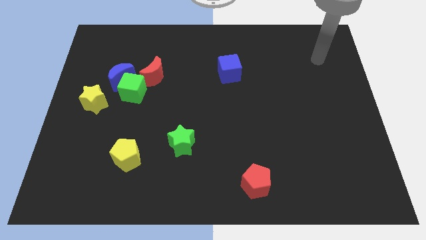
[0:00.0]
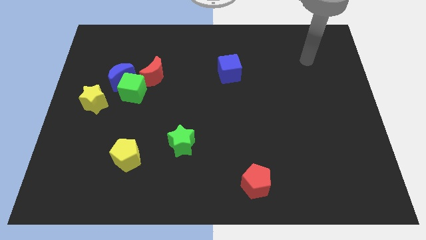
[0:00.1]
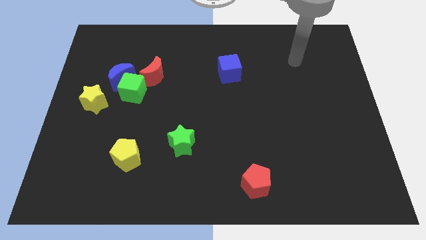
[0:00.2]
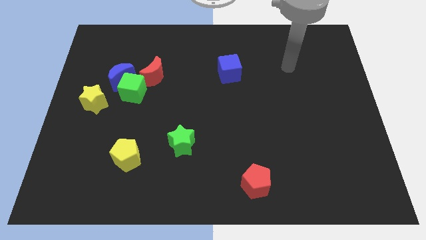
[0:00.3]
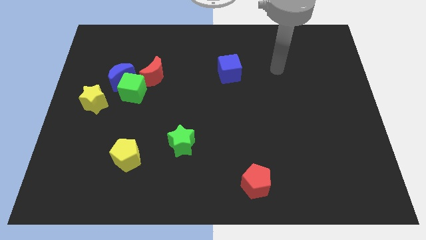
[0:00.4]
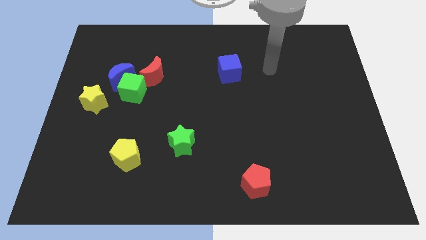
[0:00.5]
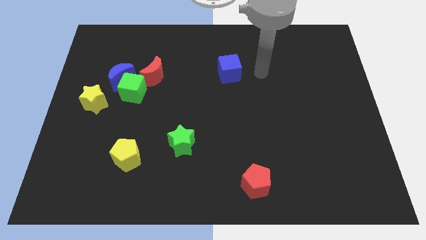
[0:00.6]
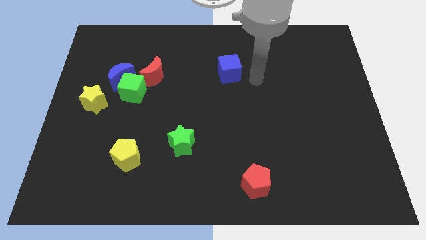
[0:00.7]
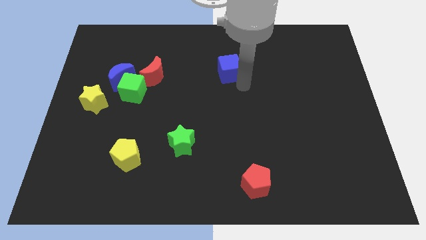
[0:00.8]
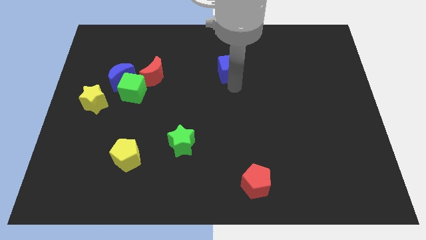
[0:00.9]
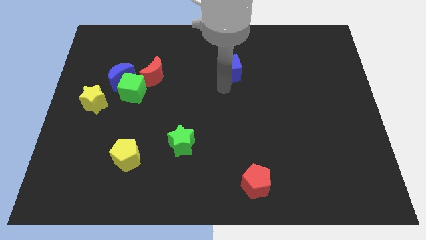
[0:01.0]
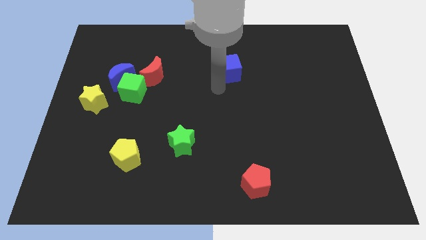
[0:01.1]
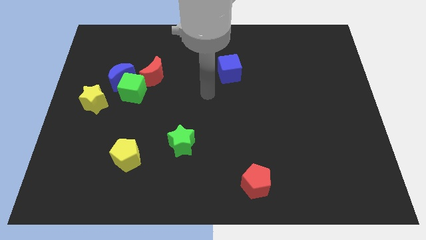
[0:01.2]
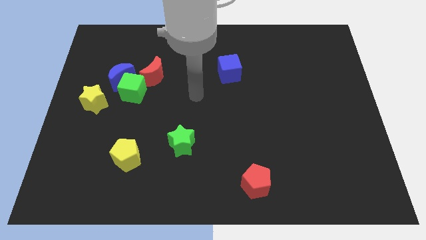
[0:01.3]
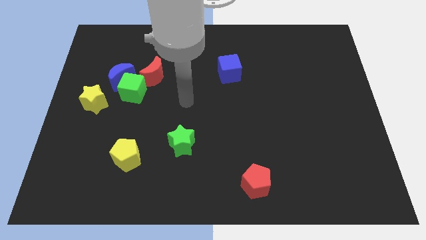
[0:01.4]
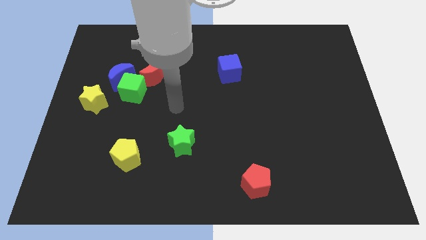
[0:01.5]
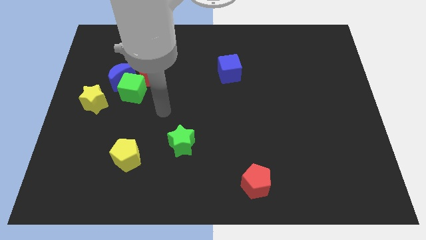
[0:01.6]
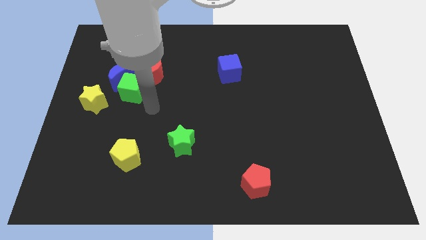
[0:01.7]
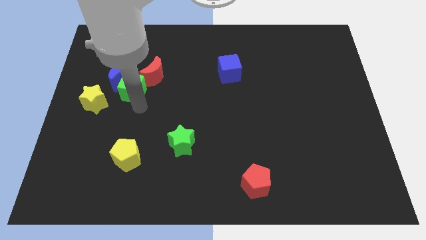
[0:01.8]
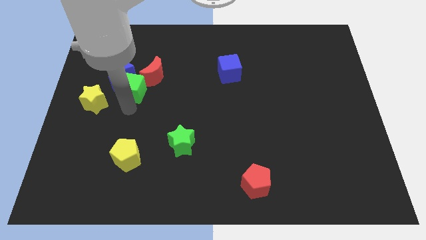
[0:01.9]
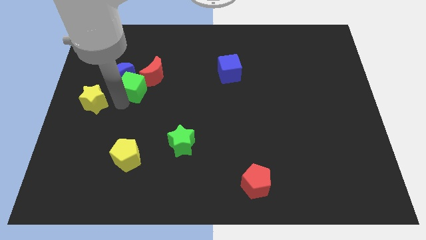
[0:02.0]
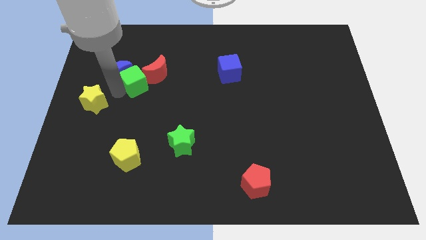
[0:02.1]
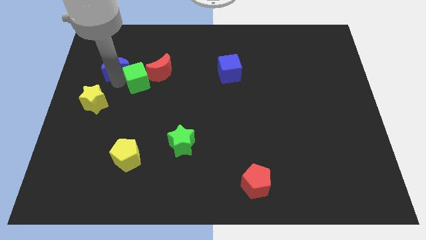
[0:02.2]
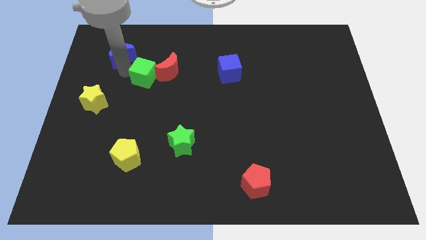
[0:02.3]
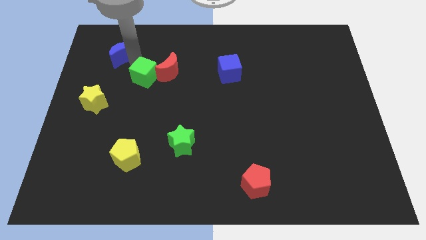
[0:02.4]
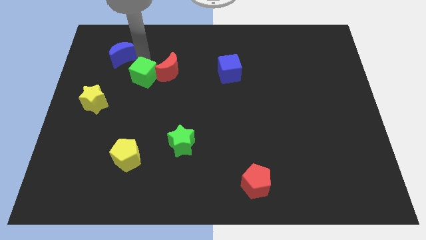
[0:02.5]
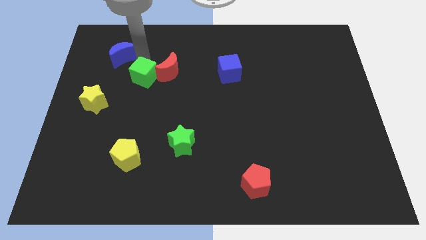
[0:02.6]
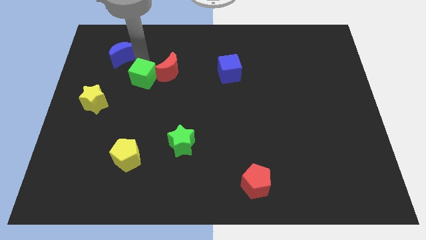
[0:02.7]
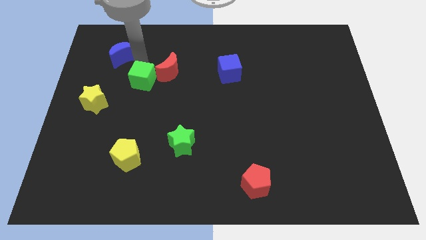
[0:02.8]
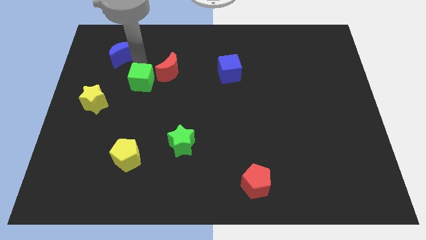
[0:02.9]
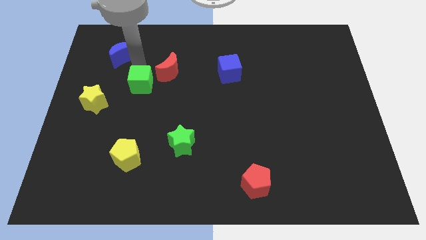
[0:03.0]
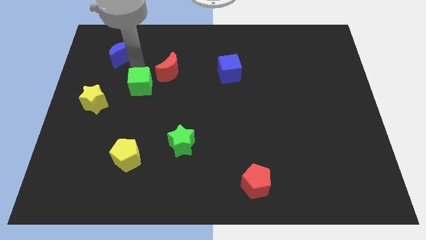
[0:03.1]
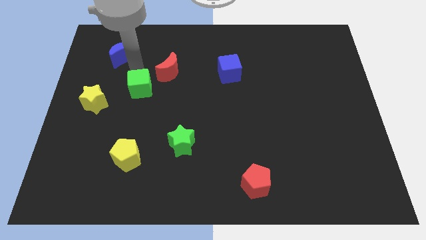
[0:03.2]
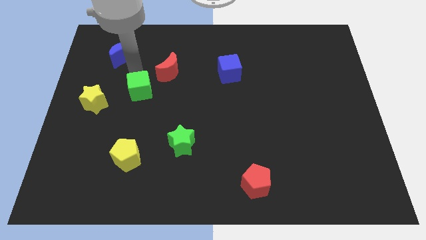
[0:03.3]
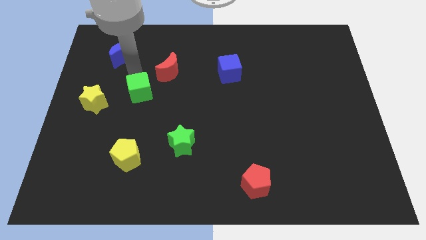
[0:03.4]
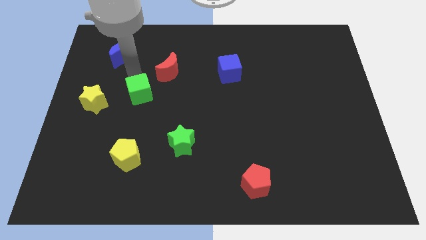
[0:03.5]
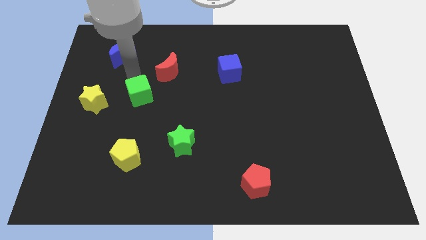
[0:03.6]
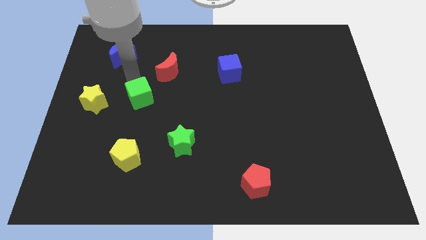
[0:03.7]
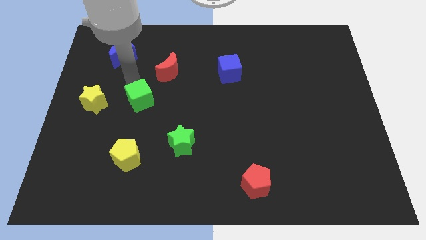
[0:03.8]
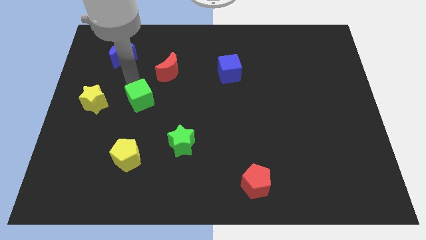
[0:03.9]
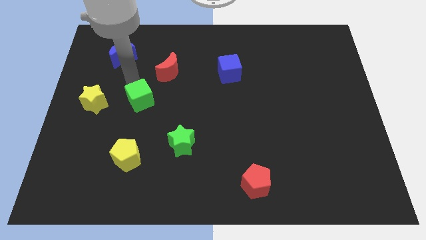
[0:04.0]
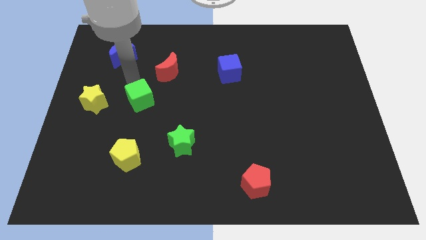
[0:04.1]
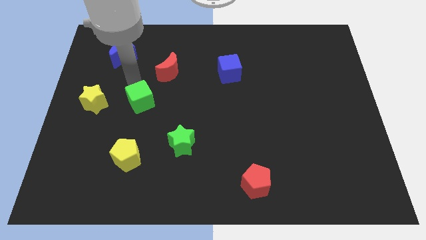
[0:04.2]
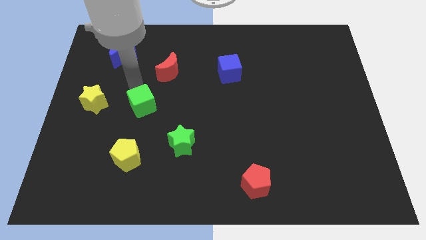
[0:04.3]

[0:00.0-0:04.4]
move the green cube away from the blue moon, red moon, and yellow star

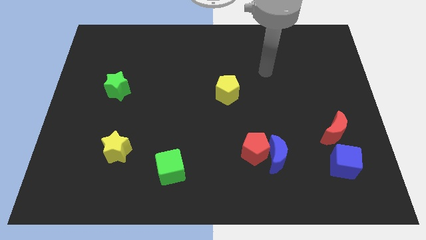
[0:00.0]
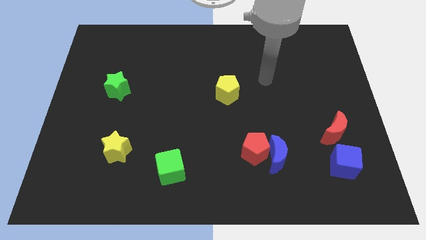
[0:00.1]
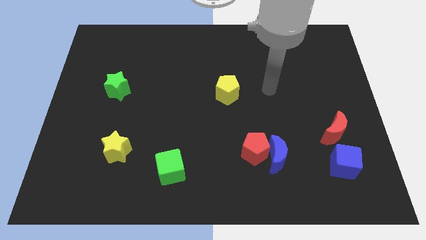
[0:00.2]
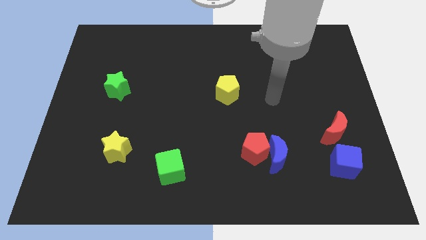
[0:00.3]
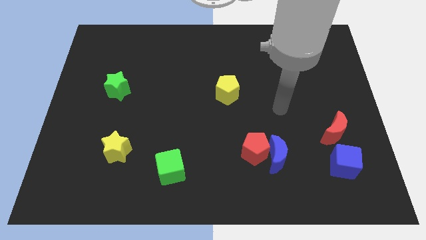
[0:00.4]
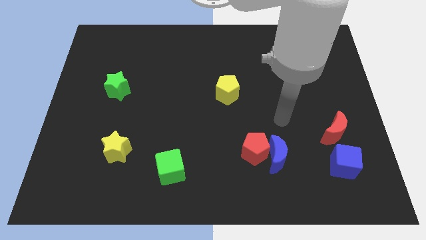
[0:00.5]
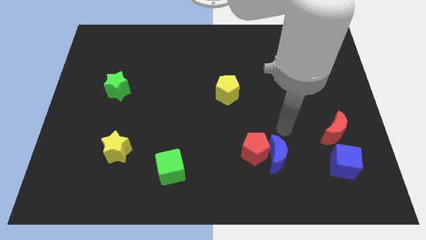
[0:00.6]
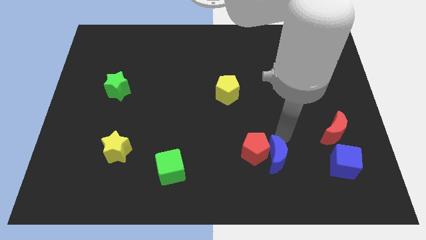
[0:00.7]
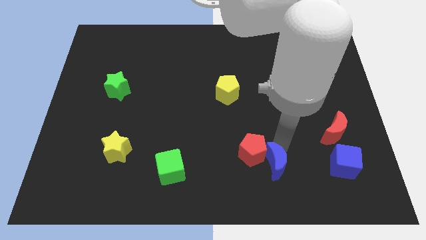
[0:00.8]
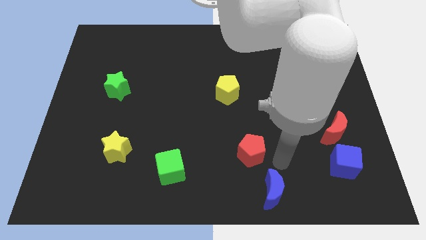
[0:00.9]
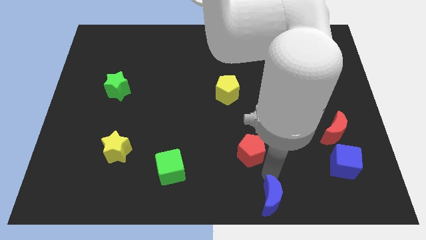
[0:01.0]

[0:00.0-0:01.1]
separate the red pentagon from the blue moon

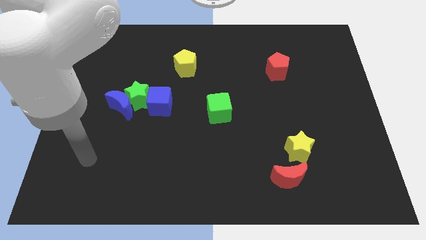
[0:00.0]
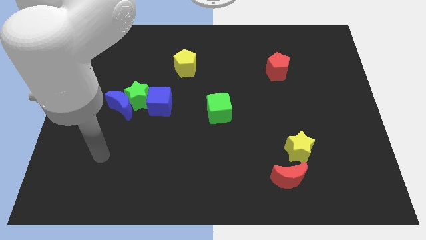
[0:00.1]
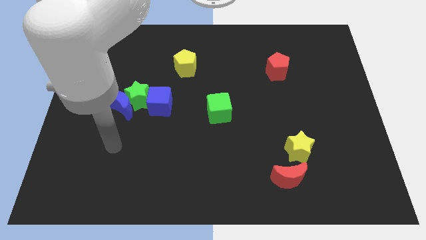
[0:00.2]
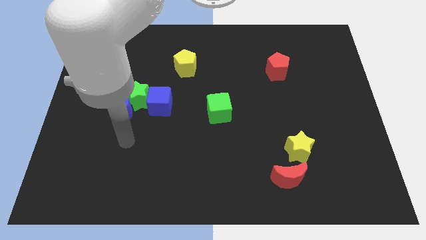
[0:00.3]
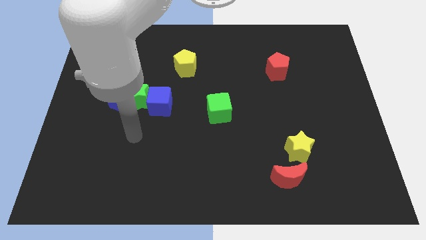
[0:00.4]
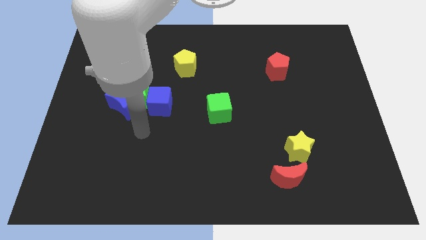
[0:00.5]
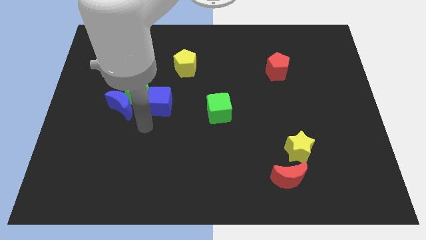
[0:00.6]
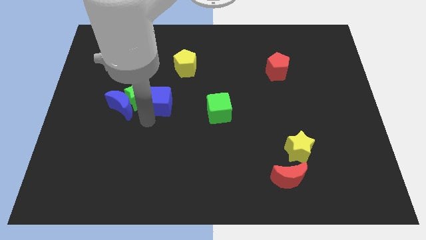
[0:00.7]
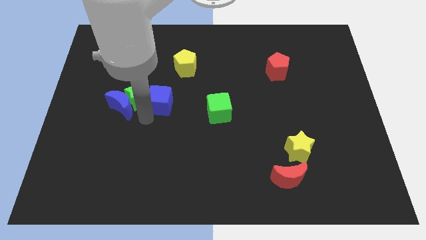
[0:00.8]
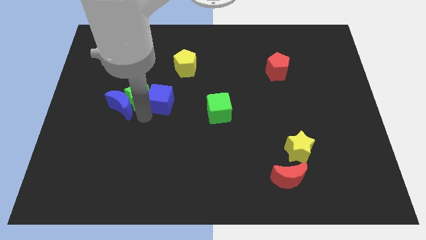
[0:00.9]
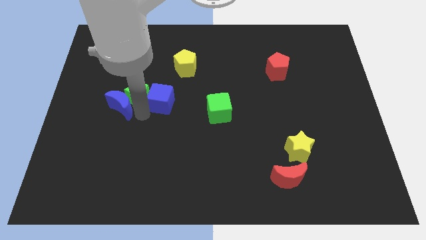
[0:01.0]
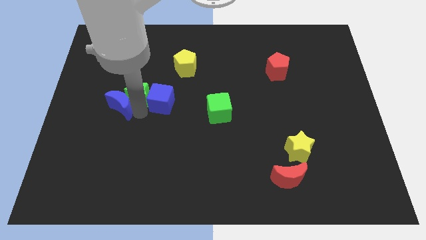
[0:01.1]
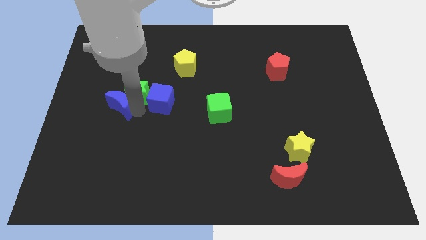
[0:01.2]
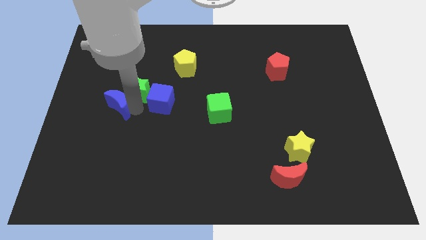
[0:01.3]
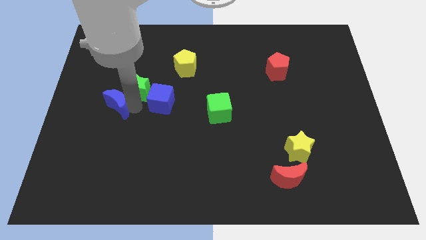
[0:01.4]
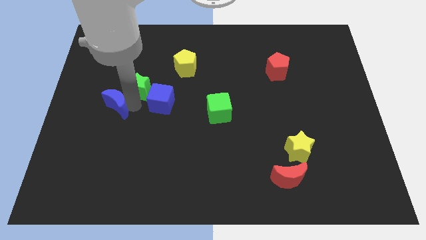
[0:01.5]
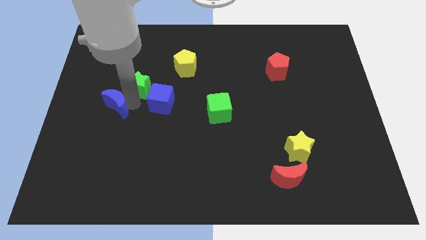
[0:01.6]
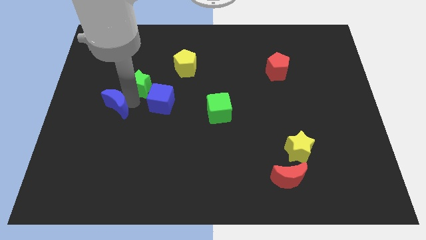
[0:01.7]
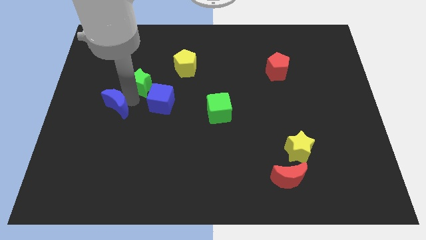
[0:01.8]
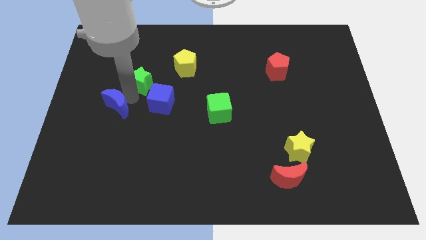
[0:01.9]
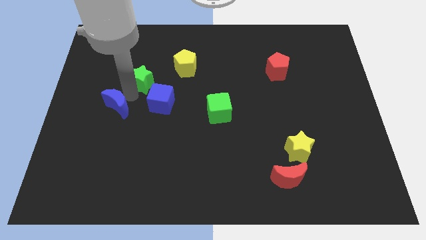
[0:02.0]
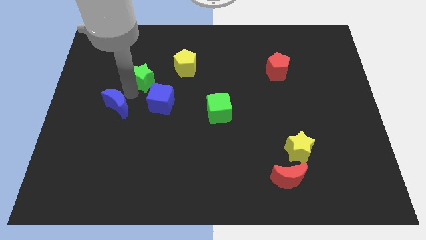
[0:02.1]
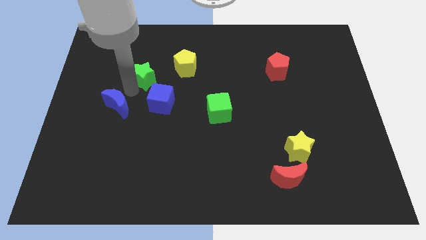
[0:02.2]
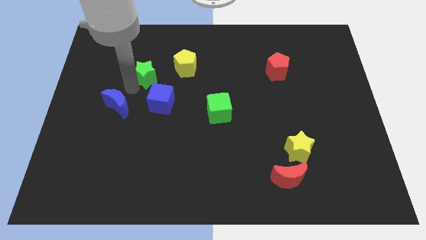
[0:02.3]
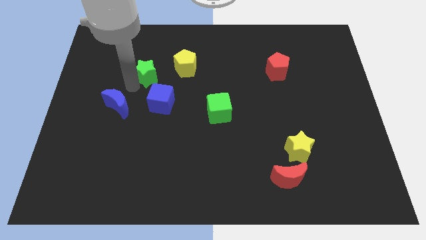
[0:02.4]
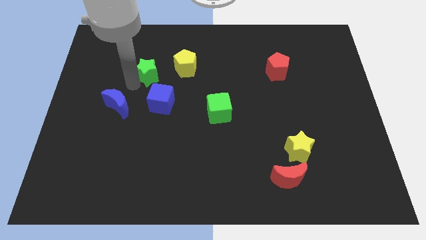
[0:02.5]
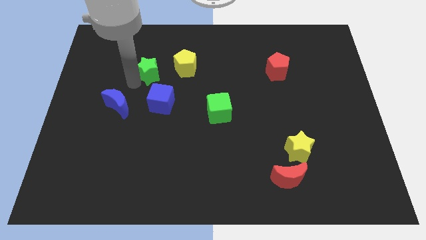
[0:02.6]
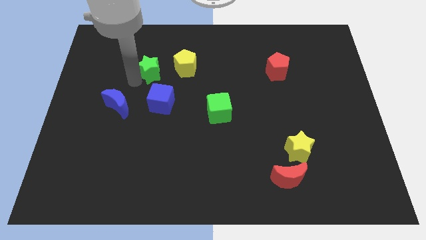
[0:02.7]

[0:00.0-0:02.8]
pull the green star apart from the blue moon and blue cube

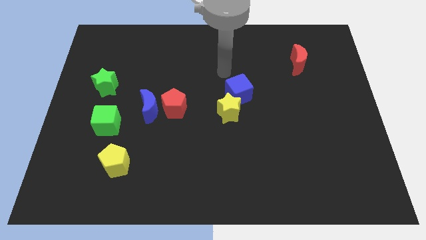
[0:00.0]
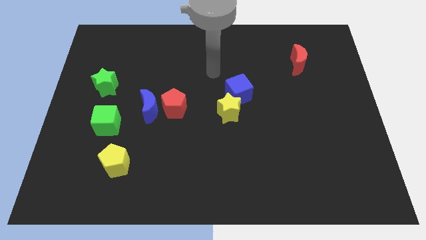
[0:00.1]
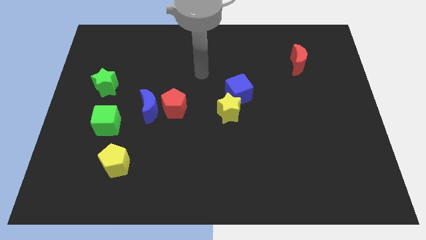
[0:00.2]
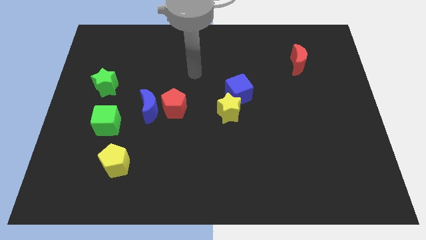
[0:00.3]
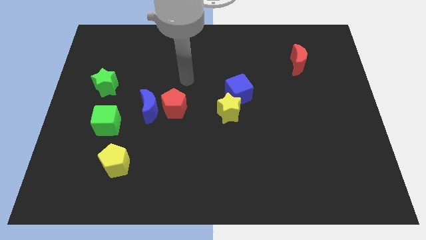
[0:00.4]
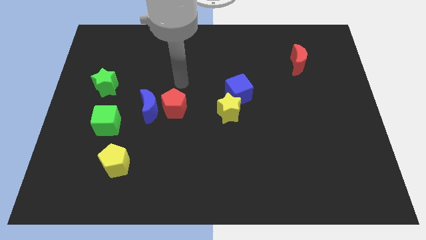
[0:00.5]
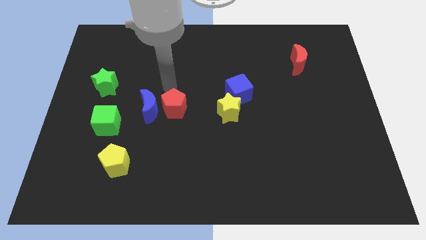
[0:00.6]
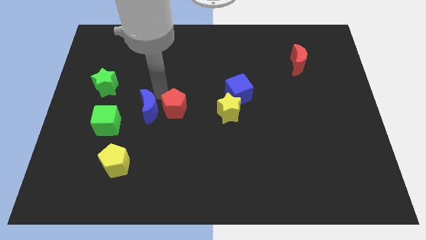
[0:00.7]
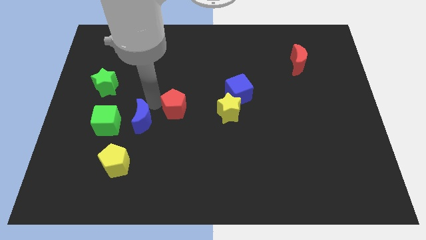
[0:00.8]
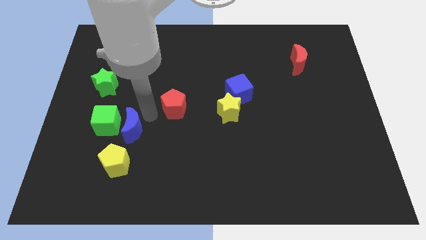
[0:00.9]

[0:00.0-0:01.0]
move the red pentagon away from the blue moon

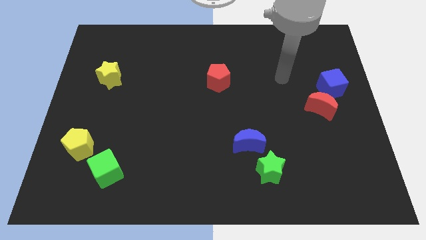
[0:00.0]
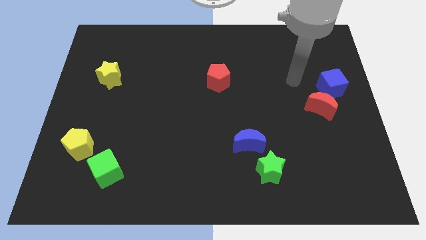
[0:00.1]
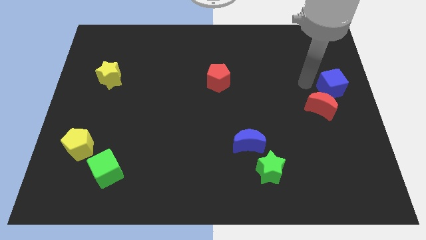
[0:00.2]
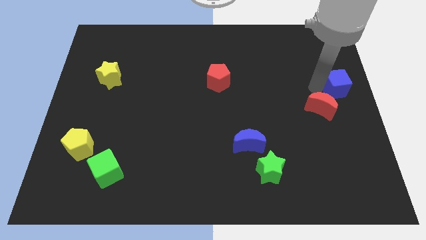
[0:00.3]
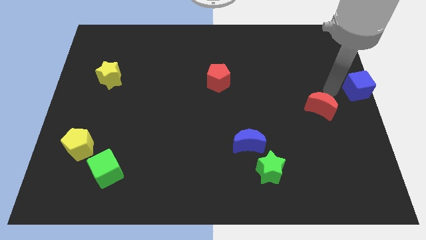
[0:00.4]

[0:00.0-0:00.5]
pull the red moon apart from the blue cube
